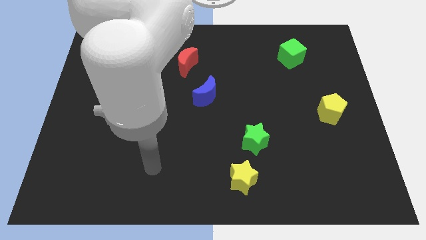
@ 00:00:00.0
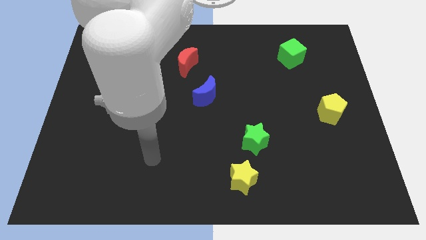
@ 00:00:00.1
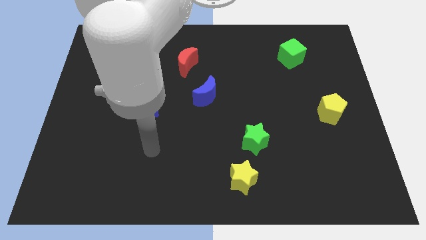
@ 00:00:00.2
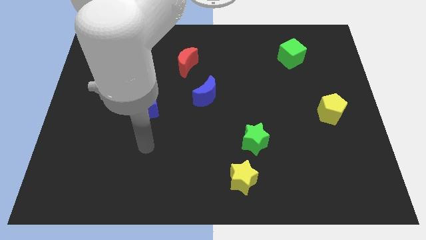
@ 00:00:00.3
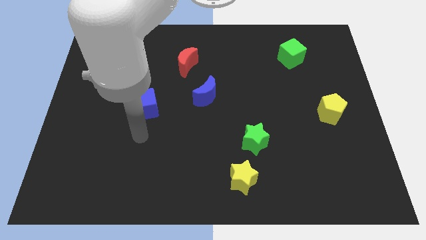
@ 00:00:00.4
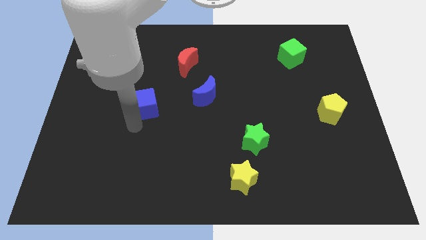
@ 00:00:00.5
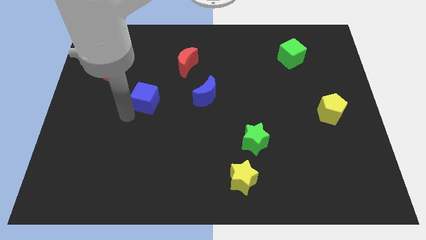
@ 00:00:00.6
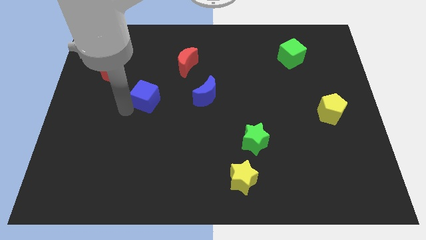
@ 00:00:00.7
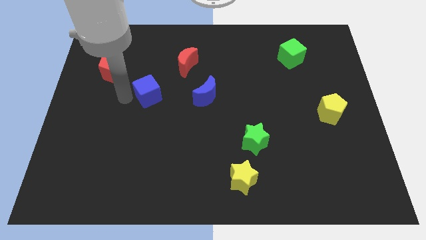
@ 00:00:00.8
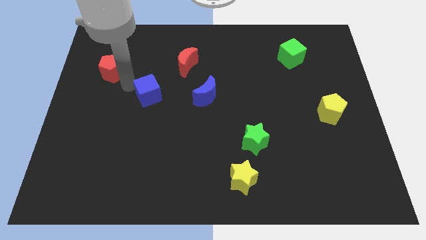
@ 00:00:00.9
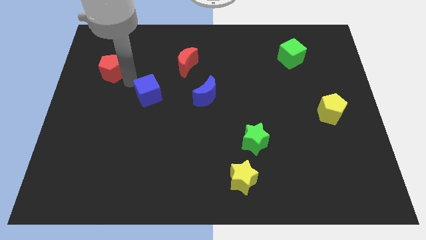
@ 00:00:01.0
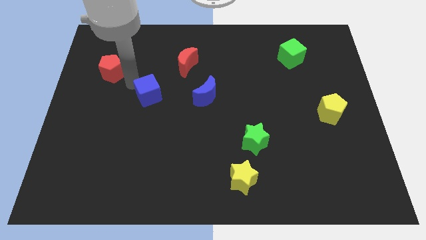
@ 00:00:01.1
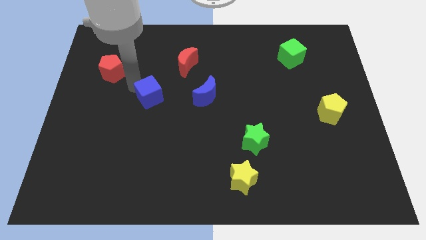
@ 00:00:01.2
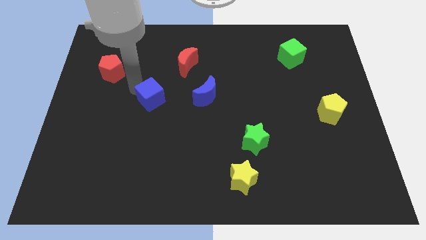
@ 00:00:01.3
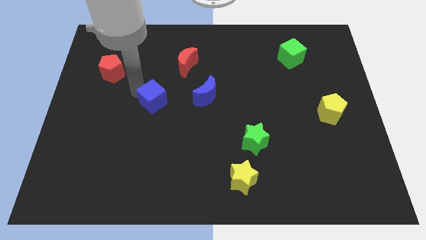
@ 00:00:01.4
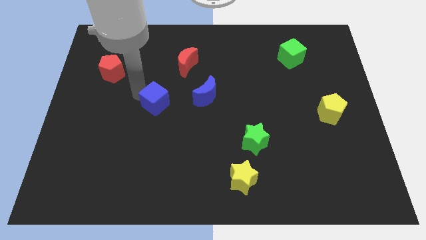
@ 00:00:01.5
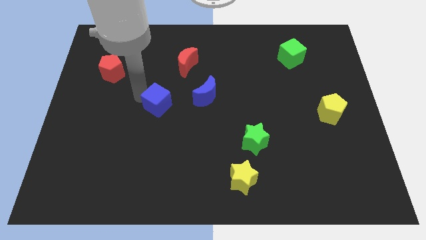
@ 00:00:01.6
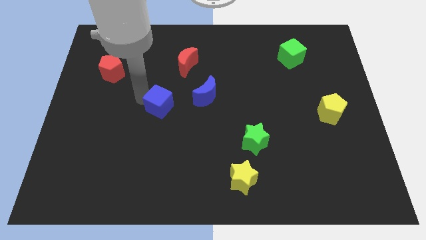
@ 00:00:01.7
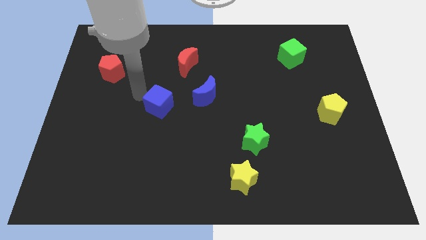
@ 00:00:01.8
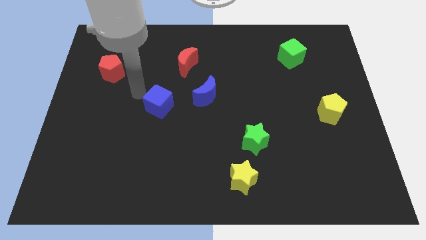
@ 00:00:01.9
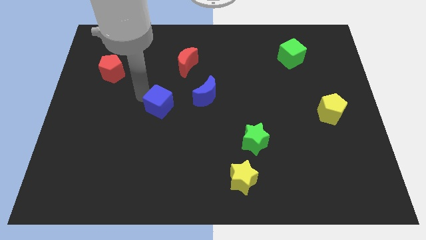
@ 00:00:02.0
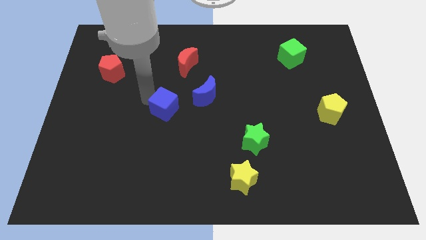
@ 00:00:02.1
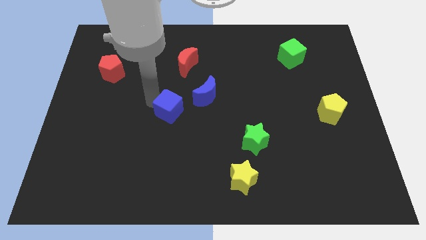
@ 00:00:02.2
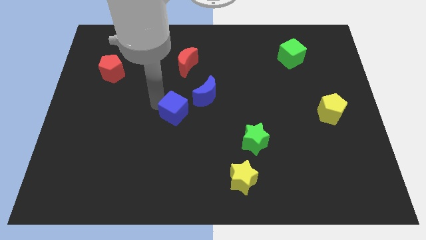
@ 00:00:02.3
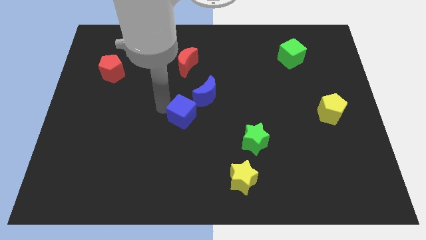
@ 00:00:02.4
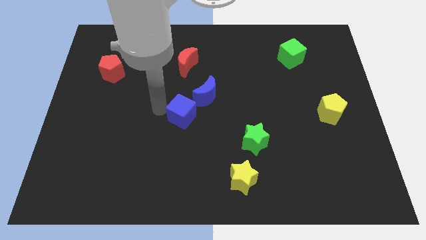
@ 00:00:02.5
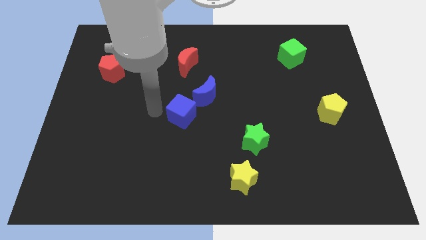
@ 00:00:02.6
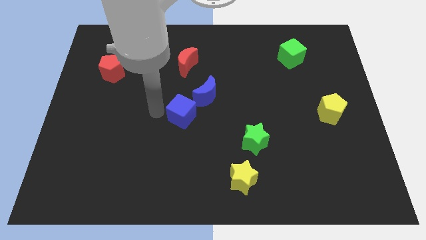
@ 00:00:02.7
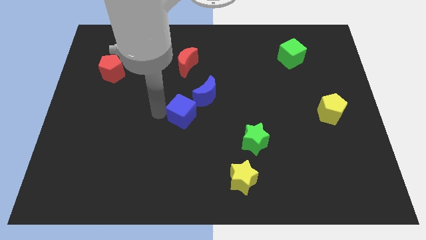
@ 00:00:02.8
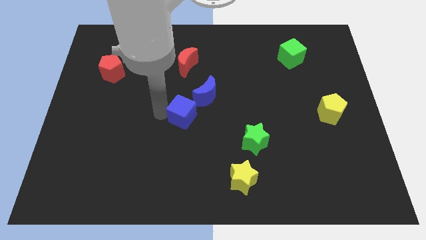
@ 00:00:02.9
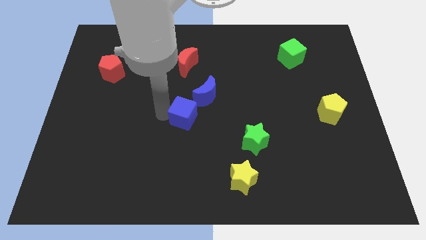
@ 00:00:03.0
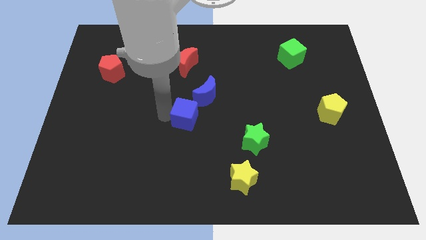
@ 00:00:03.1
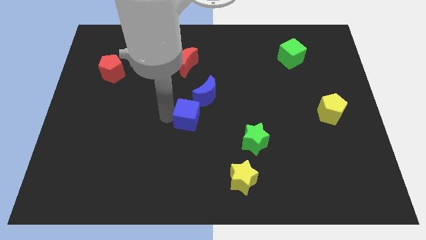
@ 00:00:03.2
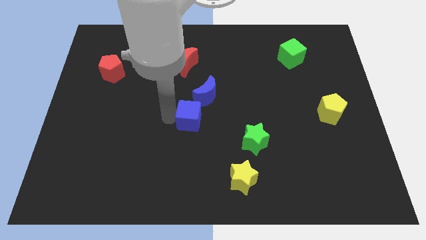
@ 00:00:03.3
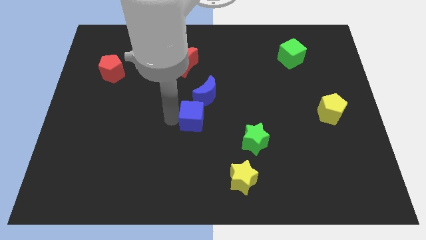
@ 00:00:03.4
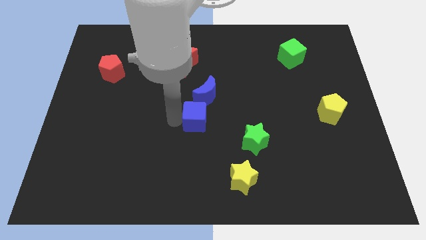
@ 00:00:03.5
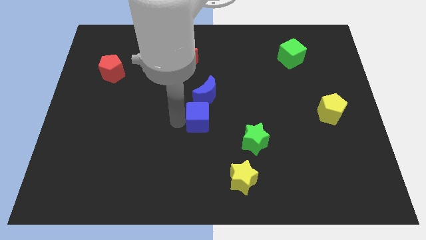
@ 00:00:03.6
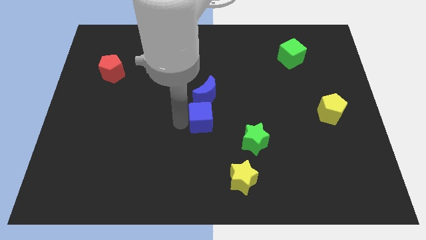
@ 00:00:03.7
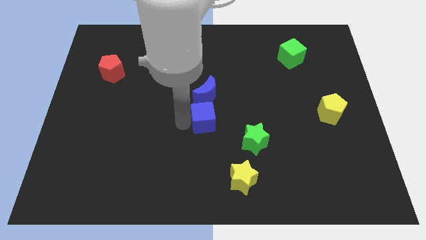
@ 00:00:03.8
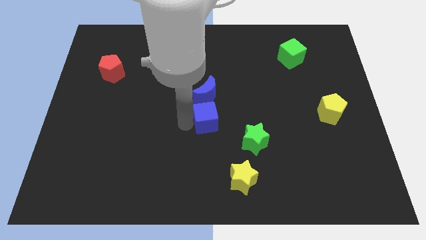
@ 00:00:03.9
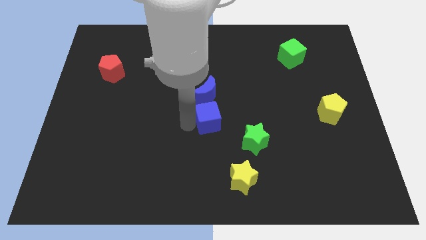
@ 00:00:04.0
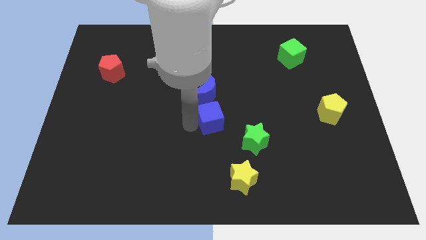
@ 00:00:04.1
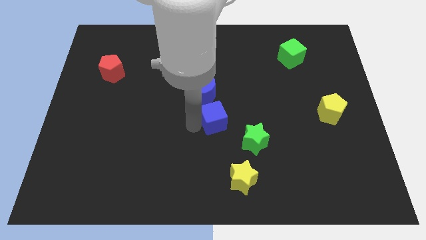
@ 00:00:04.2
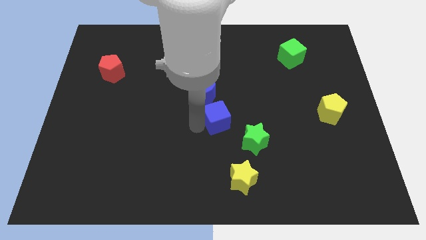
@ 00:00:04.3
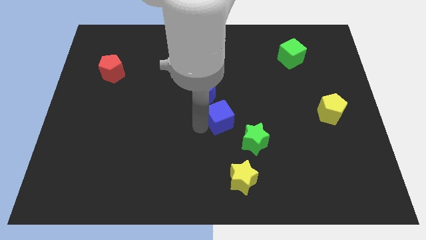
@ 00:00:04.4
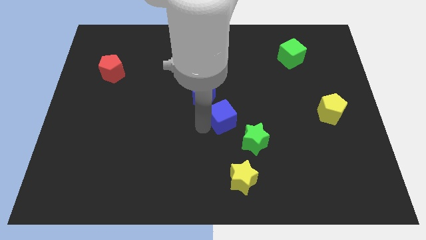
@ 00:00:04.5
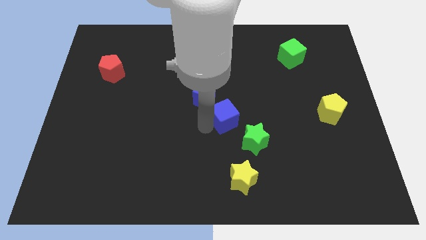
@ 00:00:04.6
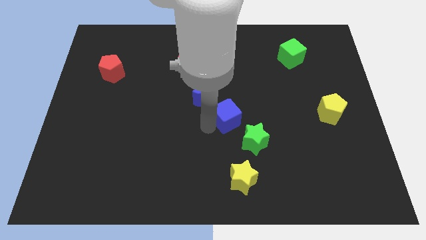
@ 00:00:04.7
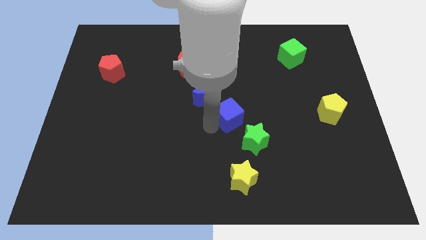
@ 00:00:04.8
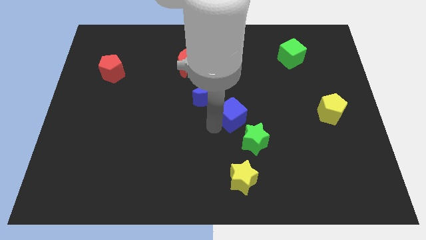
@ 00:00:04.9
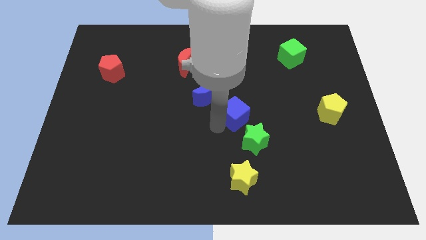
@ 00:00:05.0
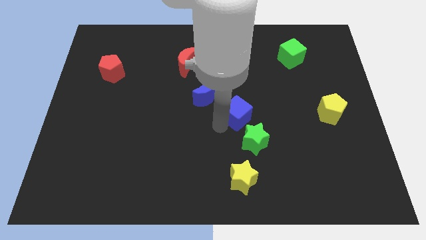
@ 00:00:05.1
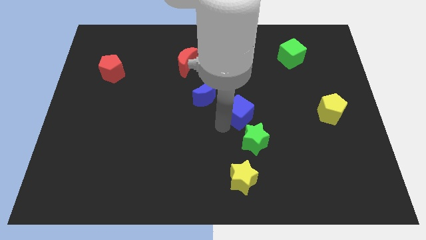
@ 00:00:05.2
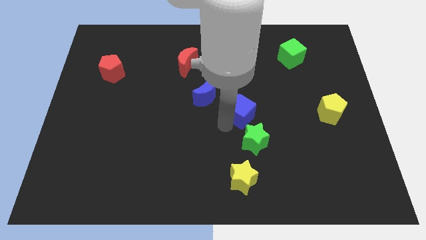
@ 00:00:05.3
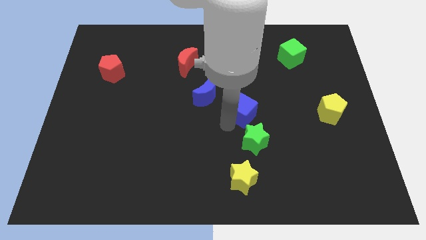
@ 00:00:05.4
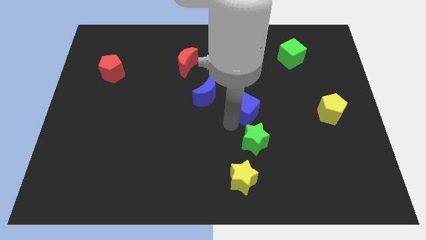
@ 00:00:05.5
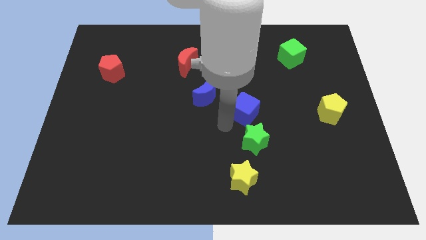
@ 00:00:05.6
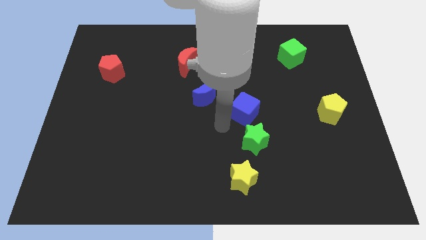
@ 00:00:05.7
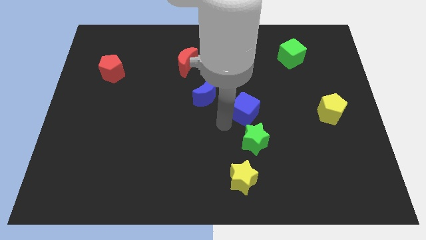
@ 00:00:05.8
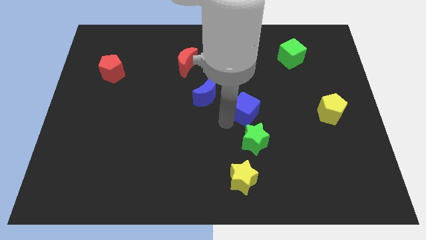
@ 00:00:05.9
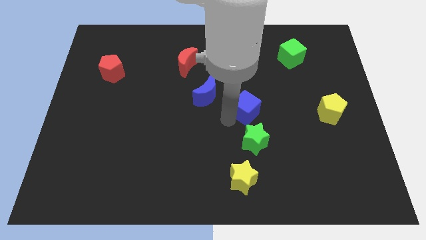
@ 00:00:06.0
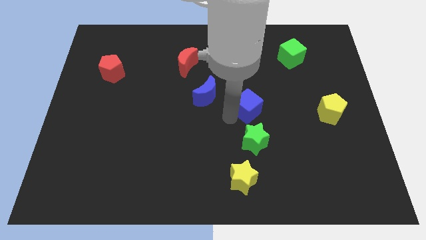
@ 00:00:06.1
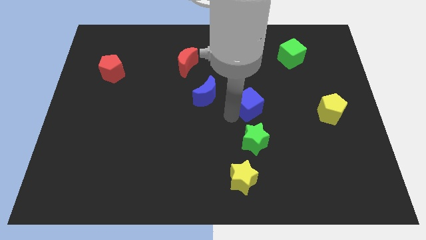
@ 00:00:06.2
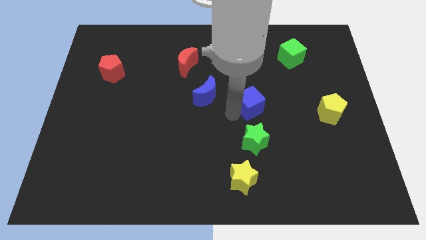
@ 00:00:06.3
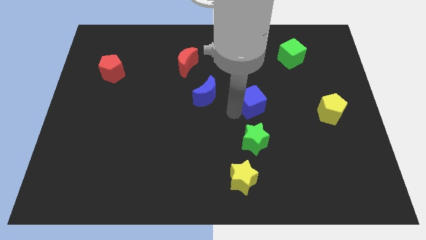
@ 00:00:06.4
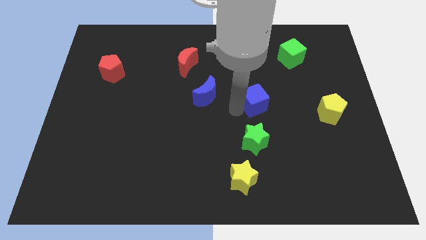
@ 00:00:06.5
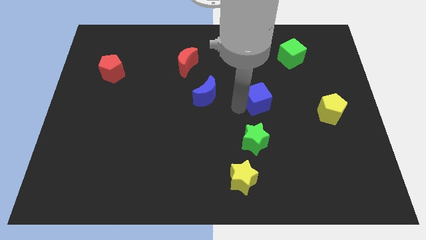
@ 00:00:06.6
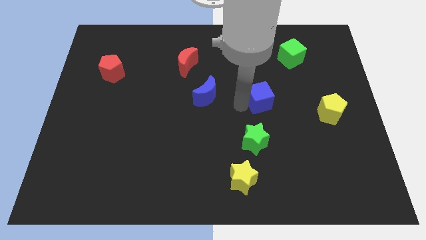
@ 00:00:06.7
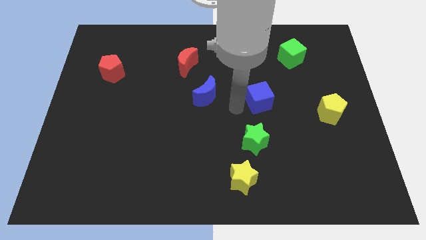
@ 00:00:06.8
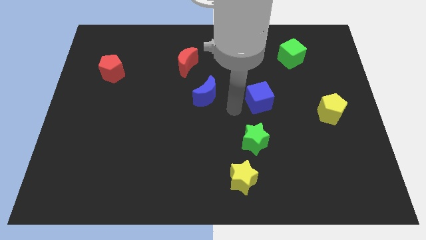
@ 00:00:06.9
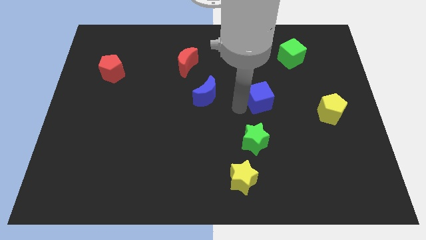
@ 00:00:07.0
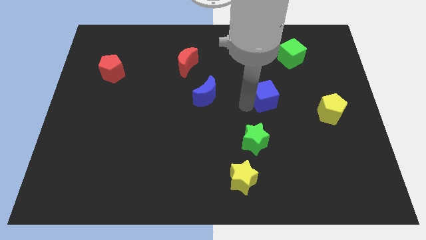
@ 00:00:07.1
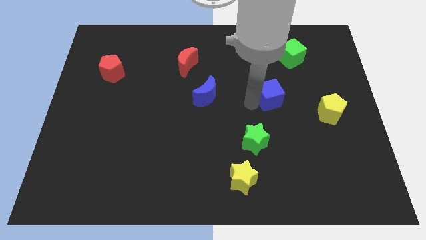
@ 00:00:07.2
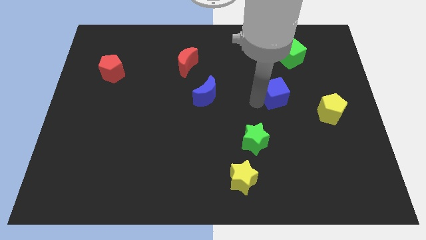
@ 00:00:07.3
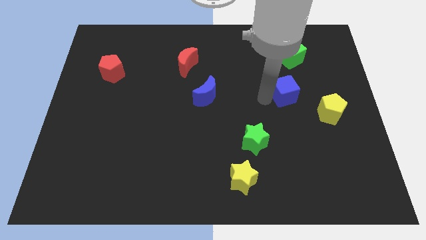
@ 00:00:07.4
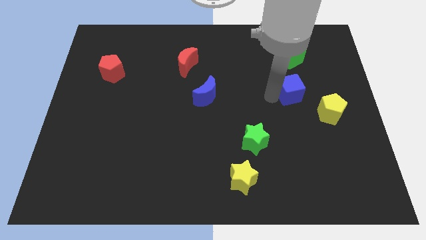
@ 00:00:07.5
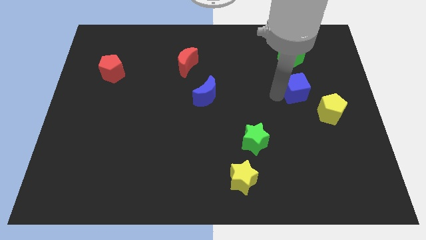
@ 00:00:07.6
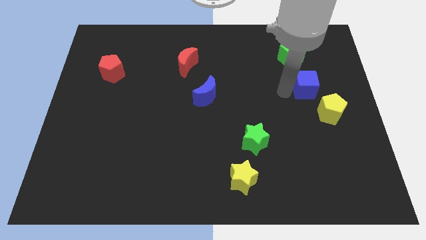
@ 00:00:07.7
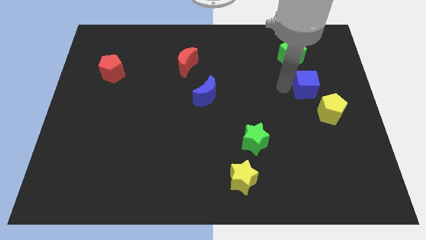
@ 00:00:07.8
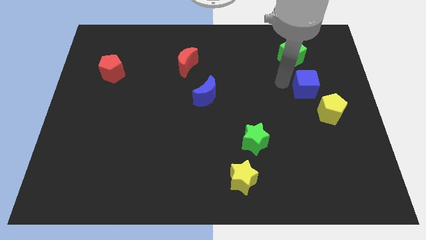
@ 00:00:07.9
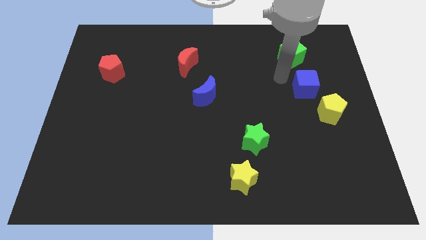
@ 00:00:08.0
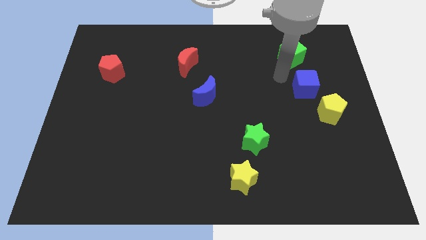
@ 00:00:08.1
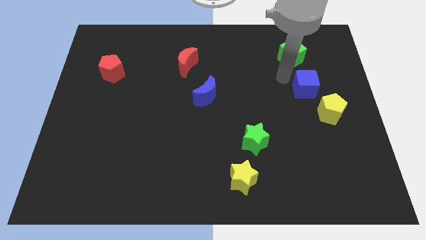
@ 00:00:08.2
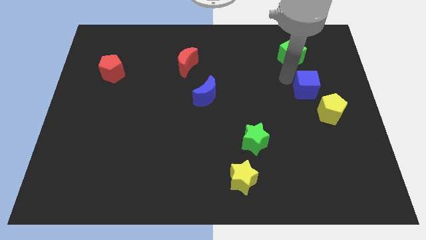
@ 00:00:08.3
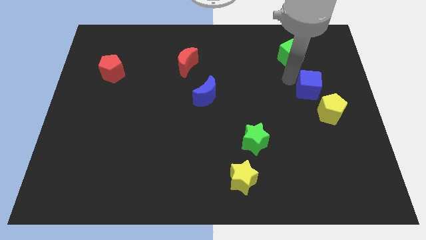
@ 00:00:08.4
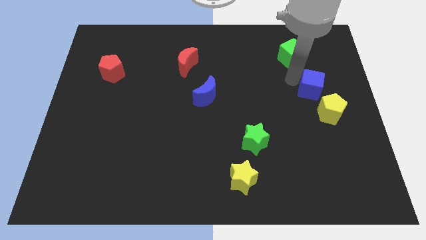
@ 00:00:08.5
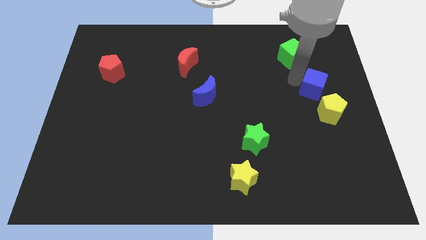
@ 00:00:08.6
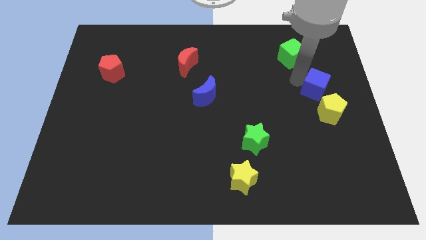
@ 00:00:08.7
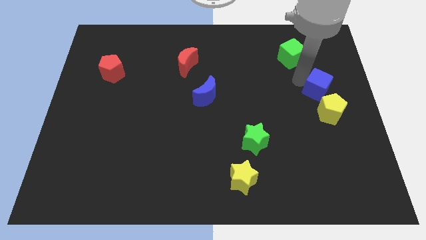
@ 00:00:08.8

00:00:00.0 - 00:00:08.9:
put the blue cube to the center right
